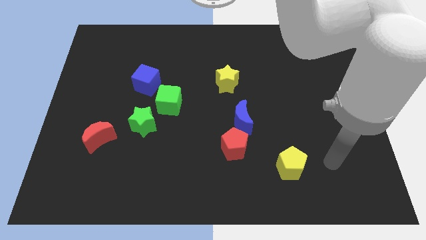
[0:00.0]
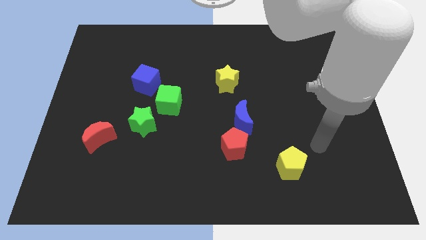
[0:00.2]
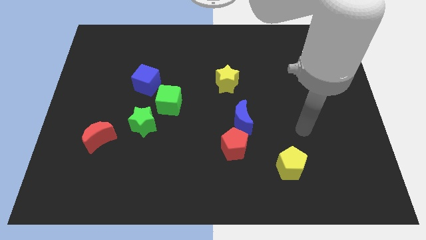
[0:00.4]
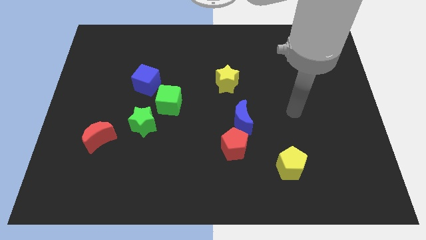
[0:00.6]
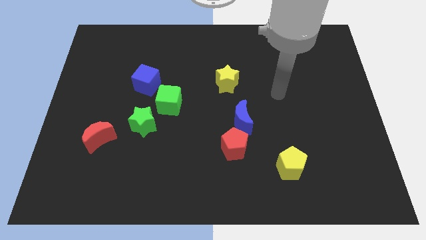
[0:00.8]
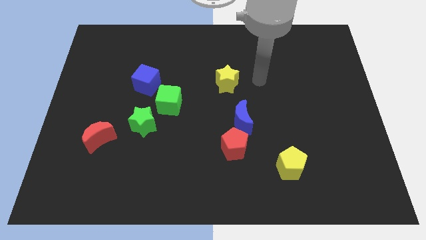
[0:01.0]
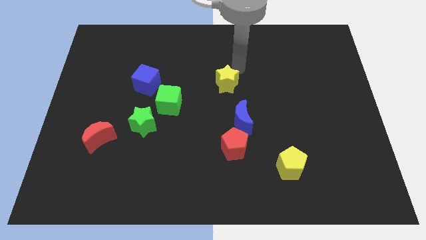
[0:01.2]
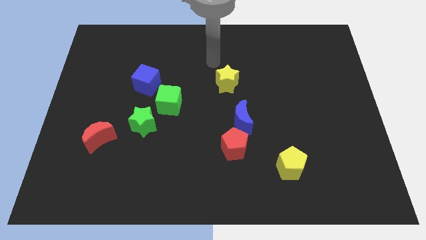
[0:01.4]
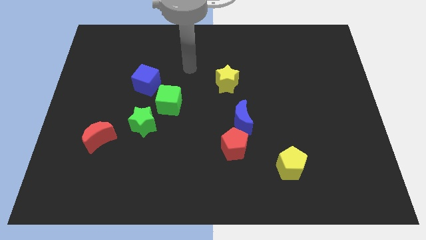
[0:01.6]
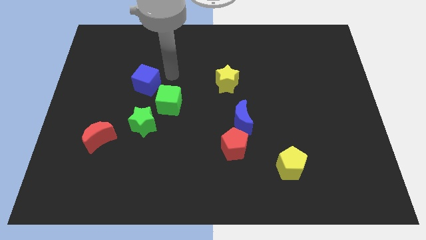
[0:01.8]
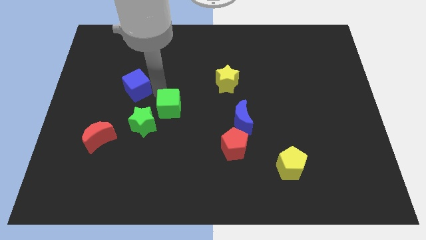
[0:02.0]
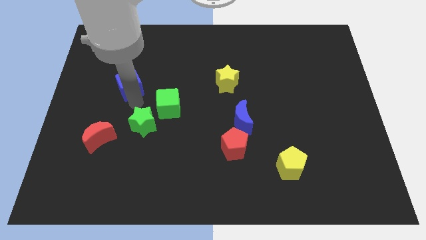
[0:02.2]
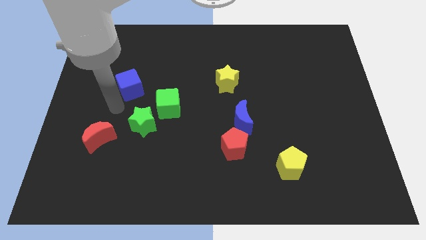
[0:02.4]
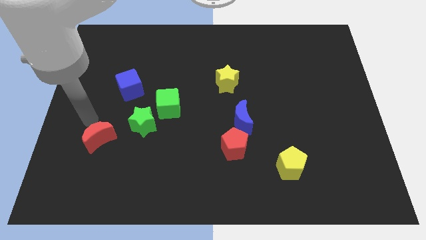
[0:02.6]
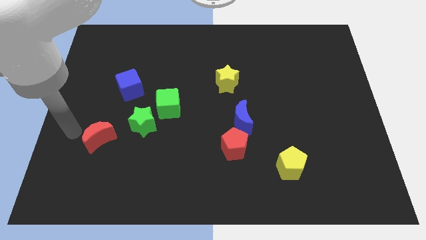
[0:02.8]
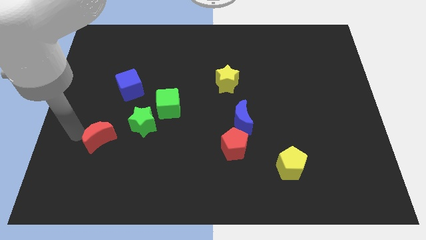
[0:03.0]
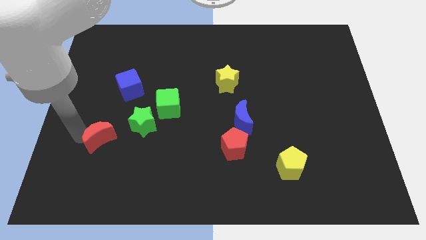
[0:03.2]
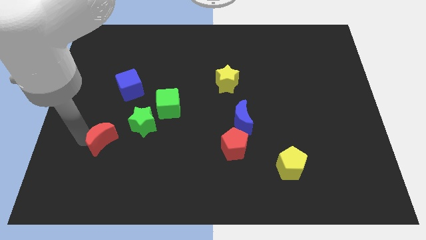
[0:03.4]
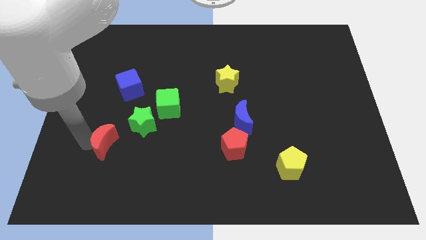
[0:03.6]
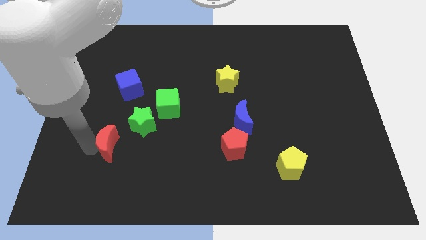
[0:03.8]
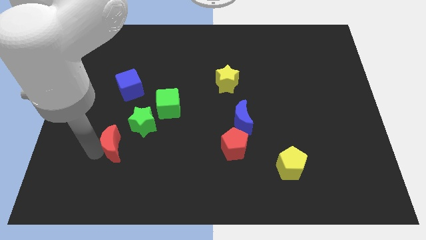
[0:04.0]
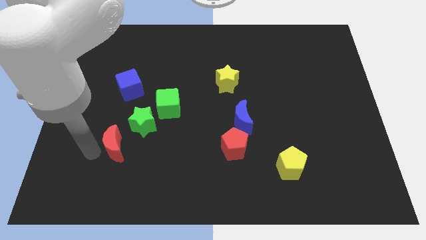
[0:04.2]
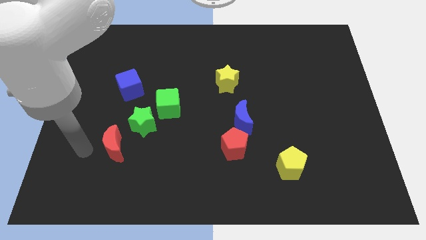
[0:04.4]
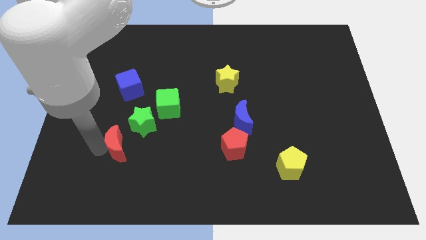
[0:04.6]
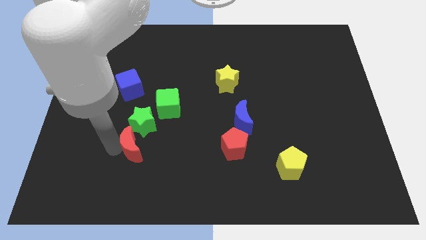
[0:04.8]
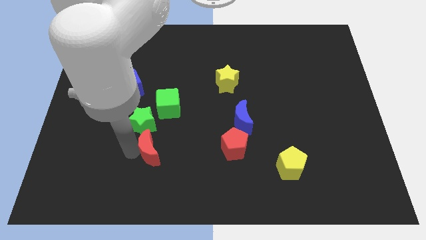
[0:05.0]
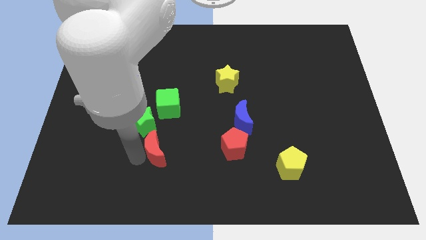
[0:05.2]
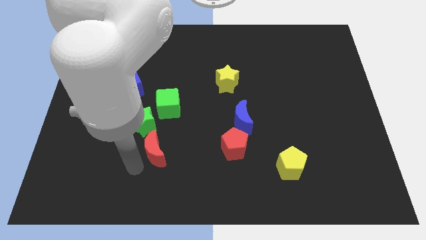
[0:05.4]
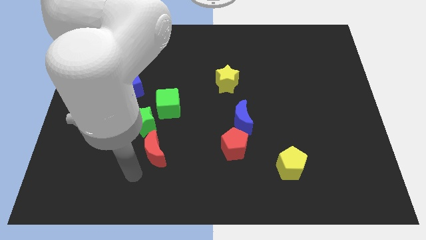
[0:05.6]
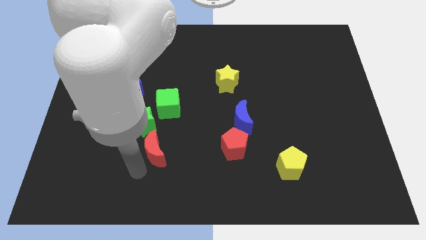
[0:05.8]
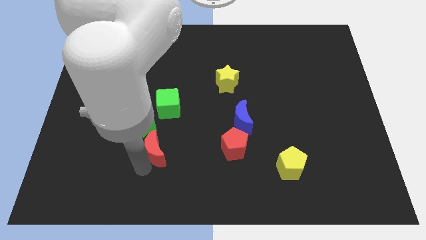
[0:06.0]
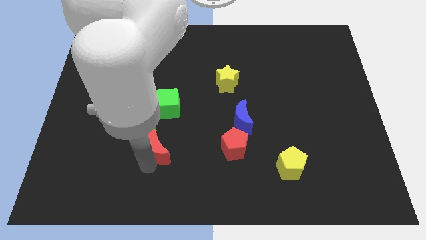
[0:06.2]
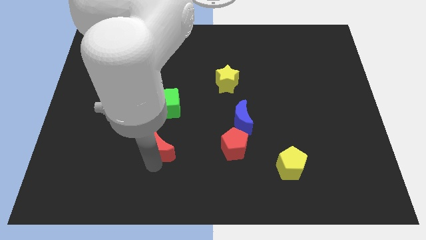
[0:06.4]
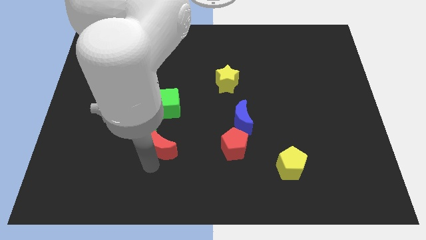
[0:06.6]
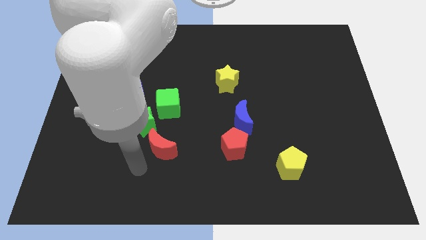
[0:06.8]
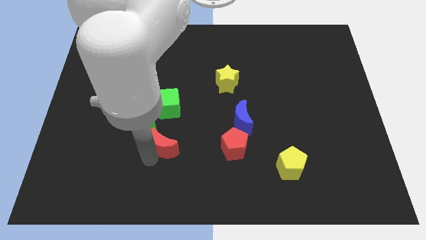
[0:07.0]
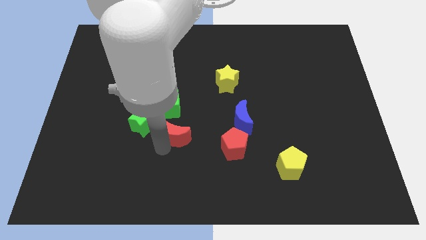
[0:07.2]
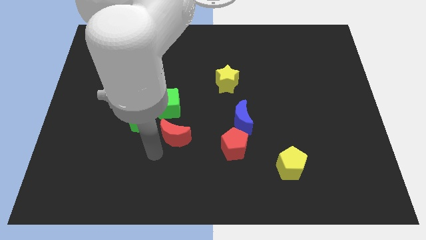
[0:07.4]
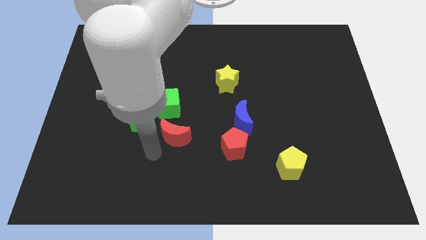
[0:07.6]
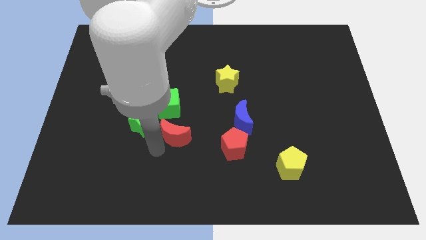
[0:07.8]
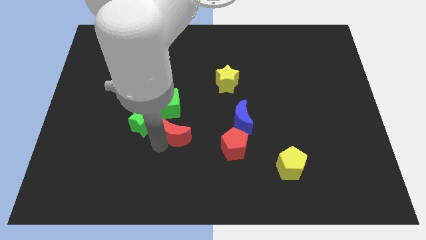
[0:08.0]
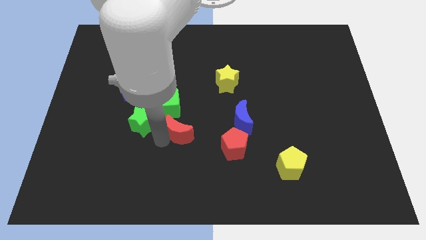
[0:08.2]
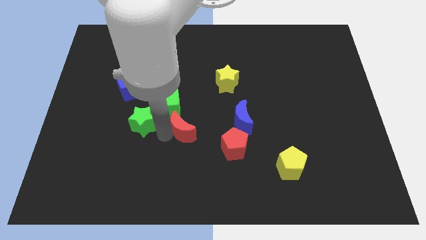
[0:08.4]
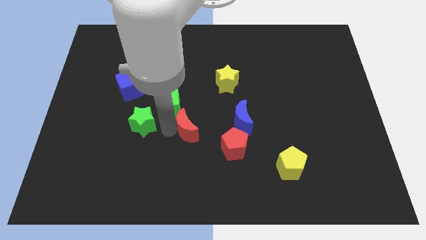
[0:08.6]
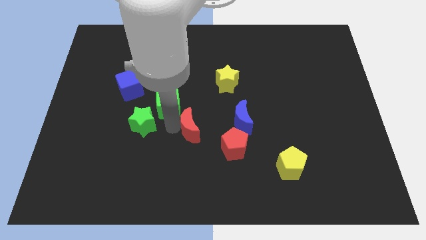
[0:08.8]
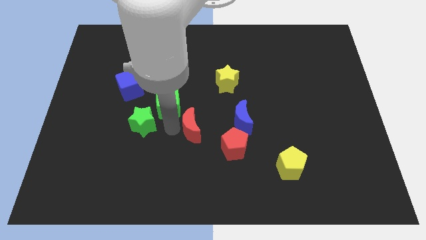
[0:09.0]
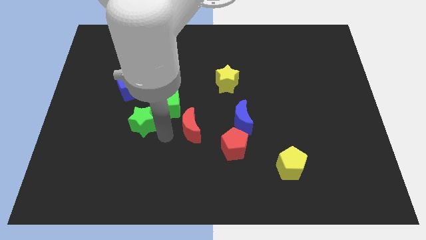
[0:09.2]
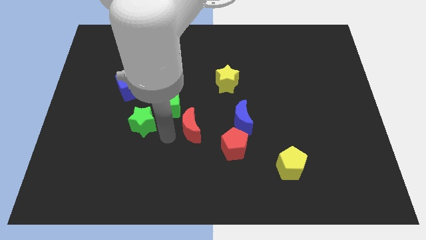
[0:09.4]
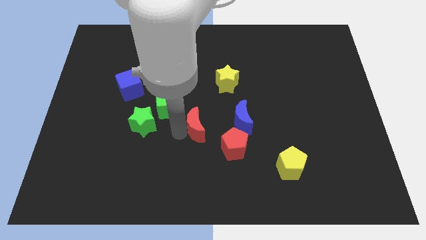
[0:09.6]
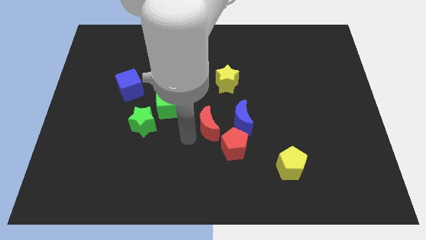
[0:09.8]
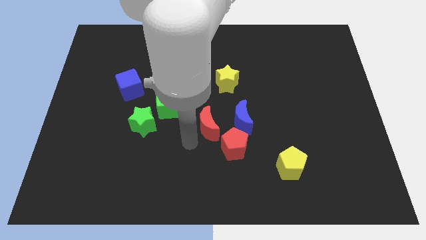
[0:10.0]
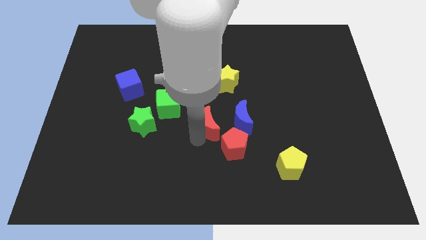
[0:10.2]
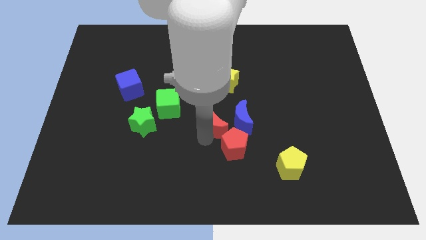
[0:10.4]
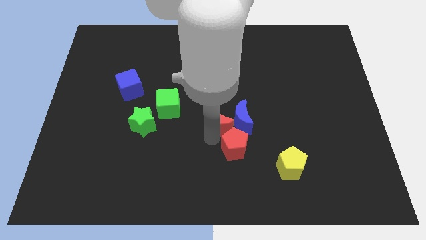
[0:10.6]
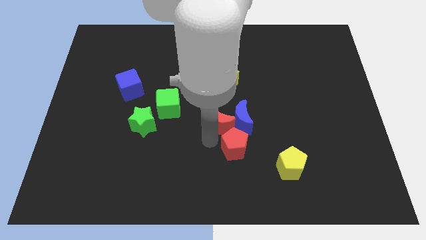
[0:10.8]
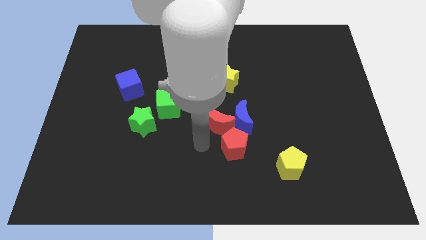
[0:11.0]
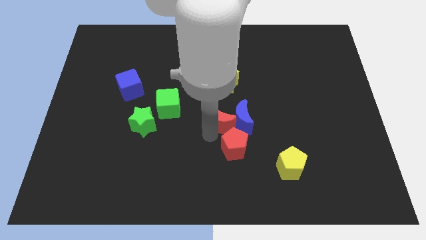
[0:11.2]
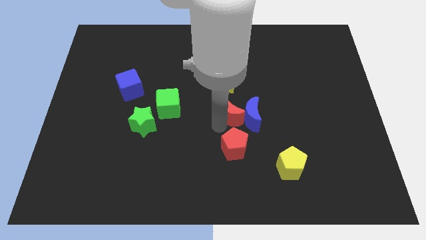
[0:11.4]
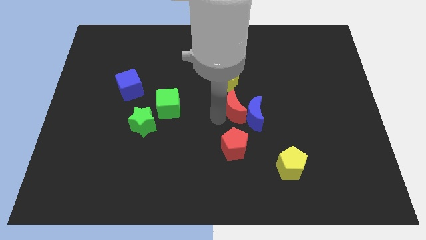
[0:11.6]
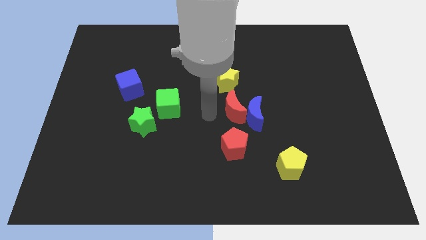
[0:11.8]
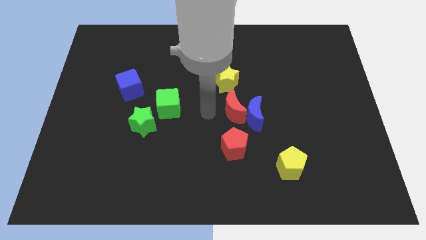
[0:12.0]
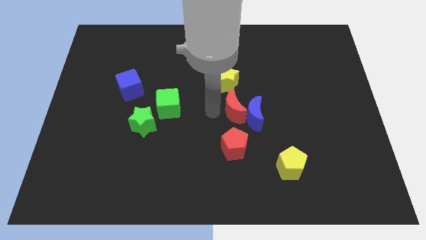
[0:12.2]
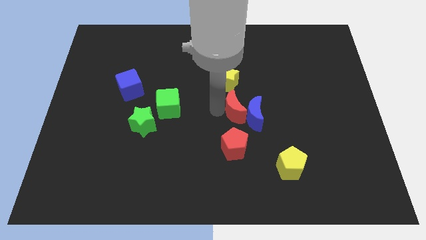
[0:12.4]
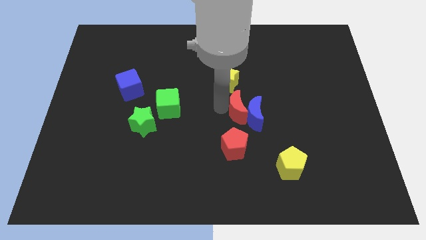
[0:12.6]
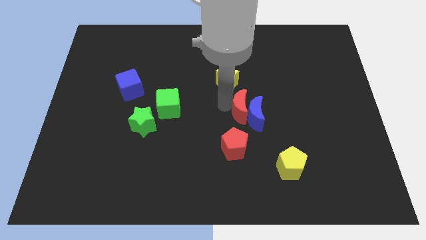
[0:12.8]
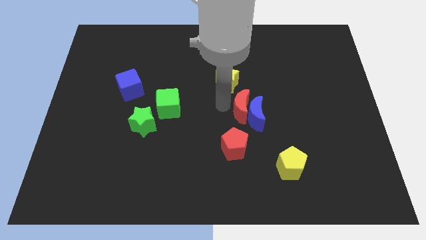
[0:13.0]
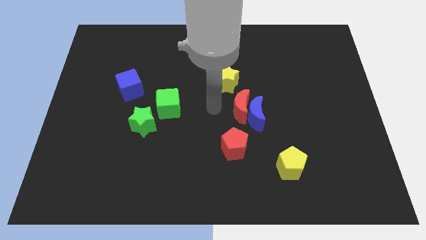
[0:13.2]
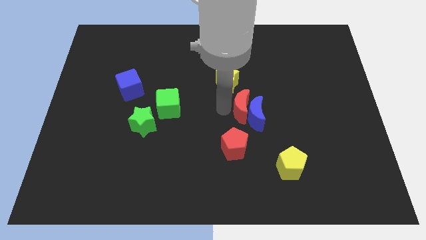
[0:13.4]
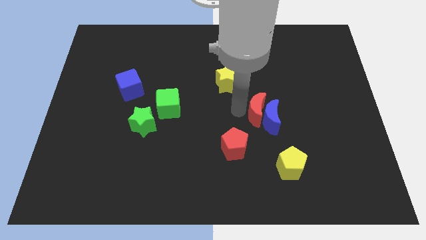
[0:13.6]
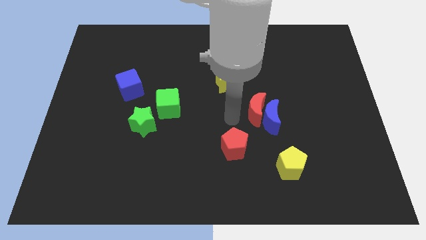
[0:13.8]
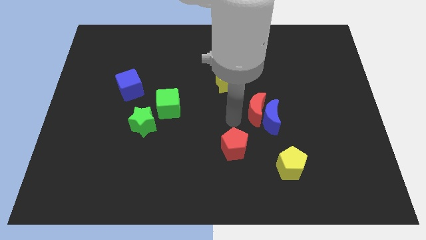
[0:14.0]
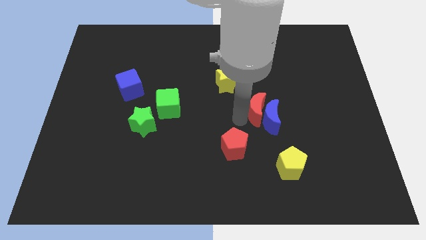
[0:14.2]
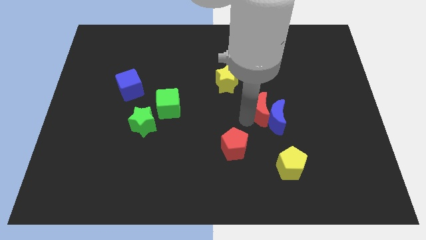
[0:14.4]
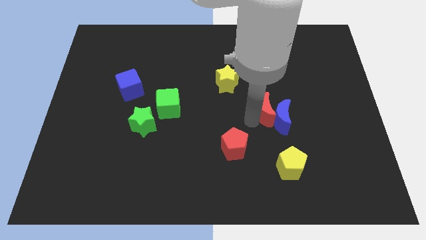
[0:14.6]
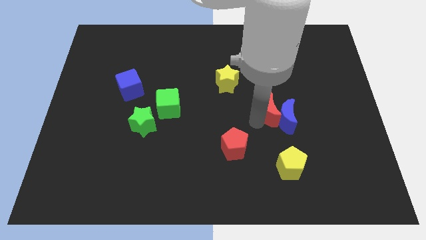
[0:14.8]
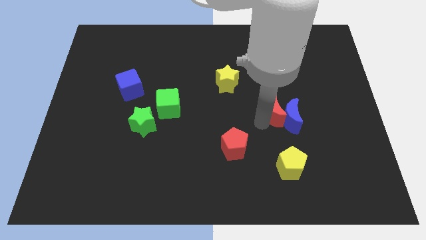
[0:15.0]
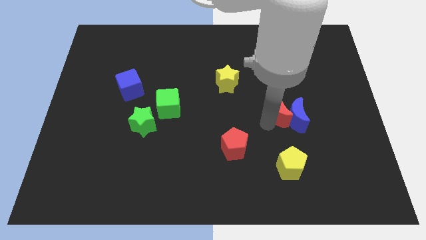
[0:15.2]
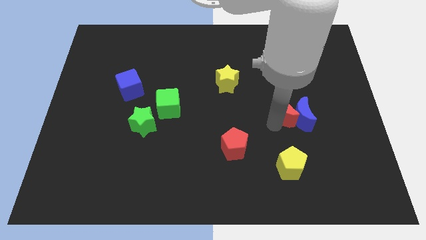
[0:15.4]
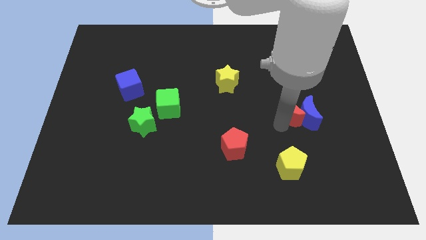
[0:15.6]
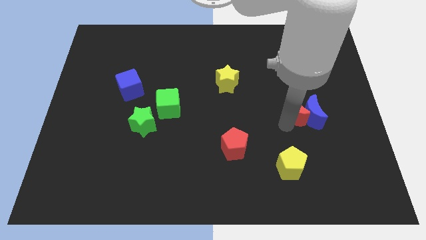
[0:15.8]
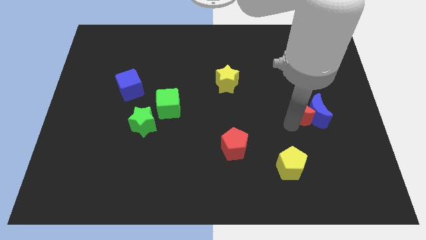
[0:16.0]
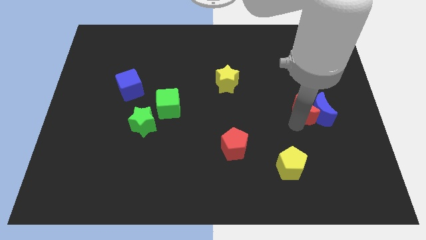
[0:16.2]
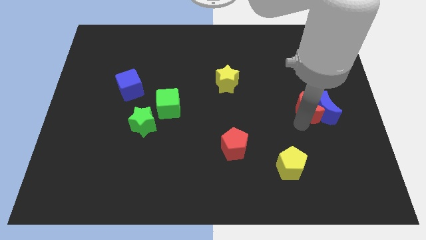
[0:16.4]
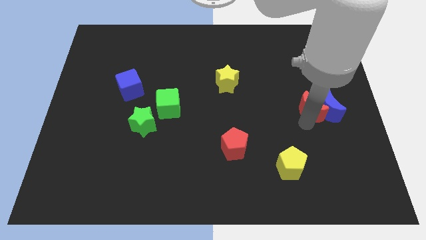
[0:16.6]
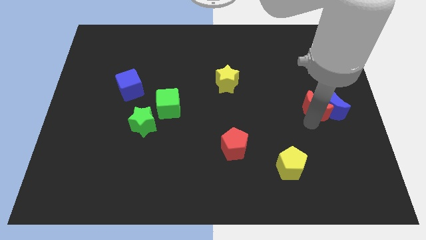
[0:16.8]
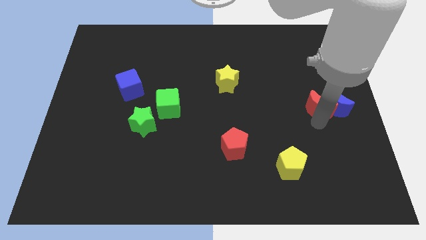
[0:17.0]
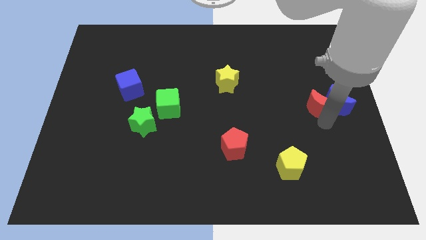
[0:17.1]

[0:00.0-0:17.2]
push the red moon to the center right
